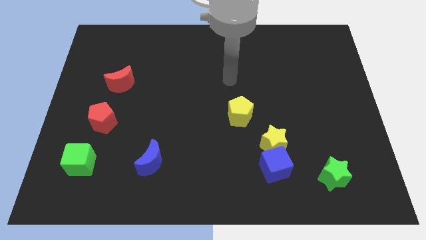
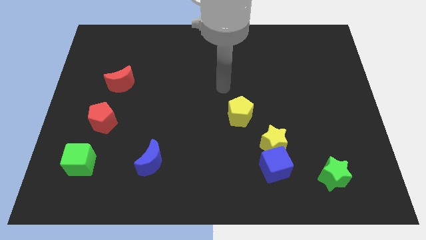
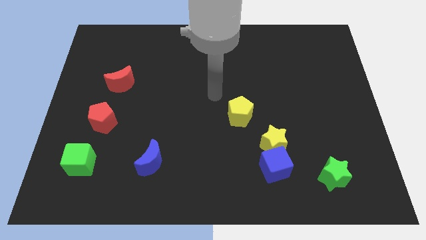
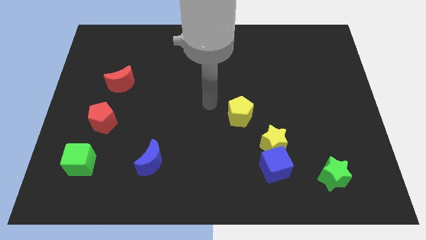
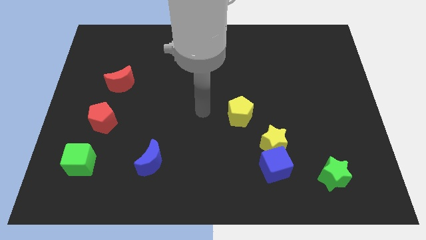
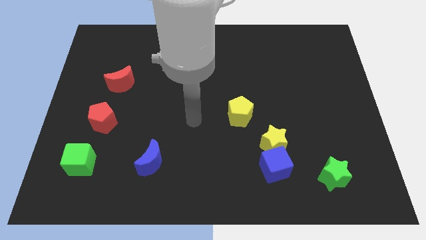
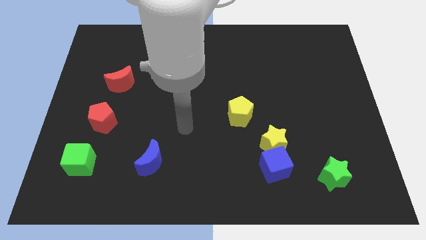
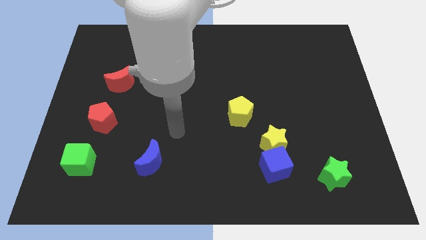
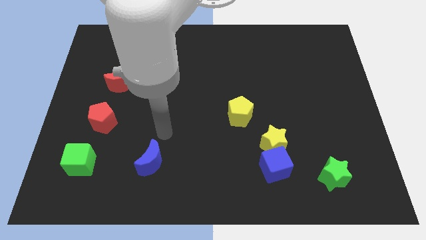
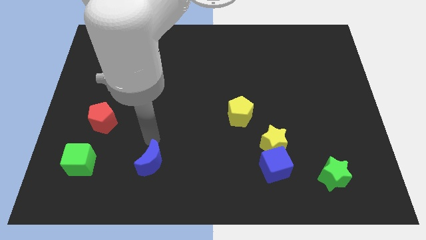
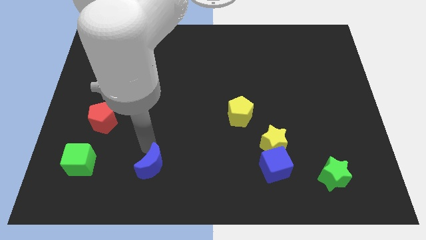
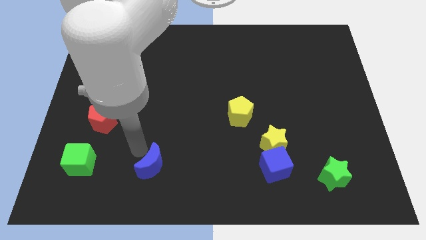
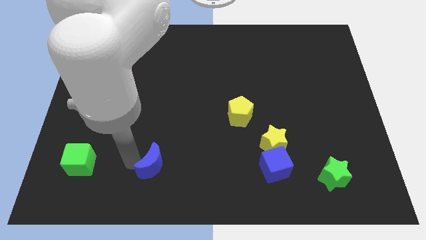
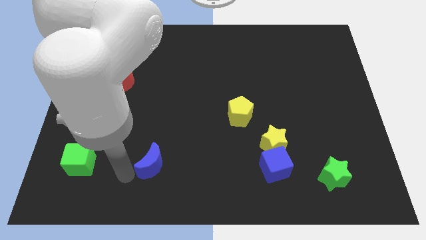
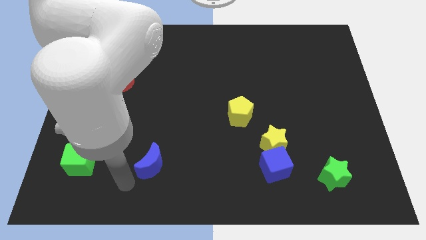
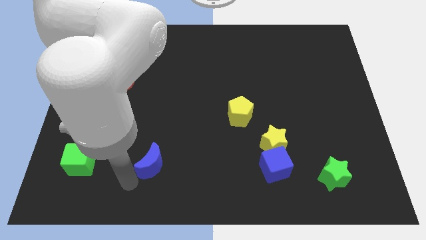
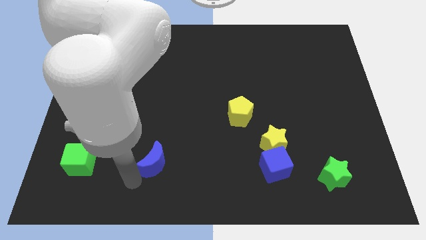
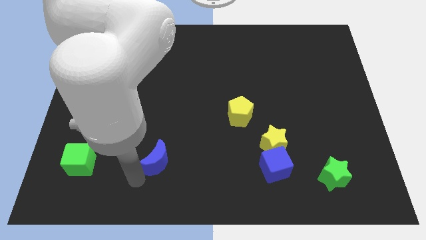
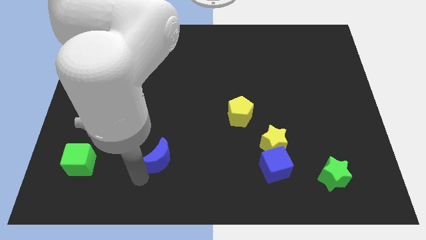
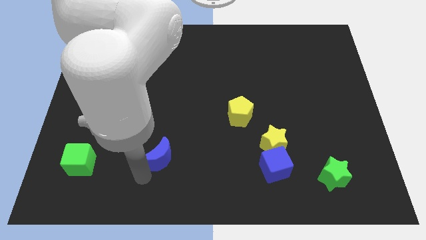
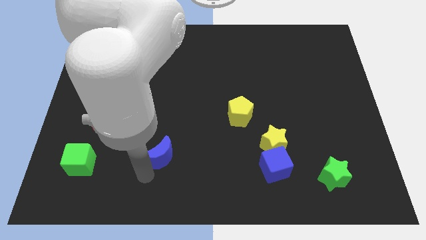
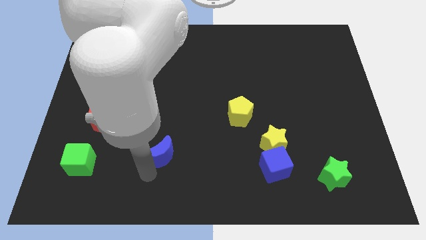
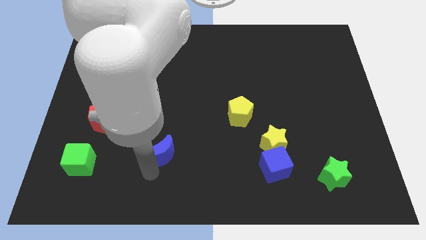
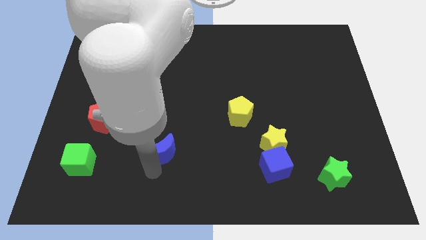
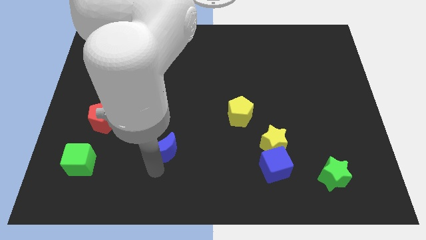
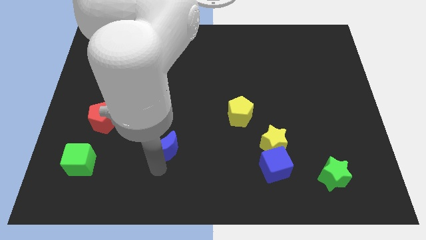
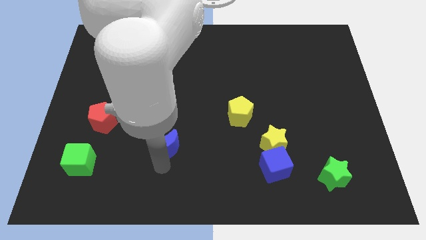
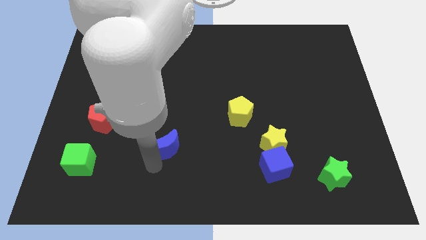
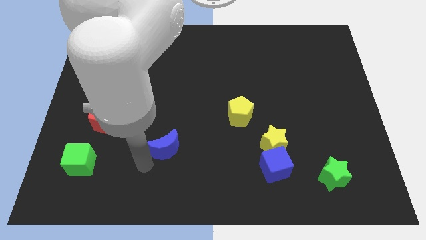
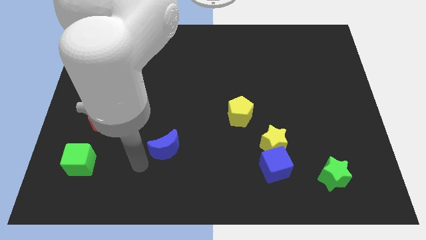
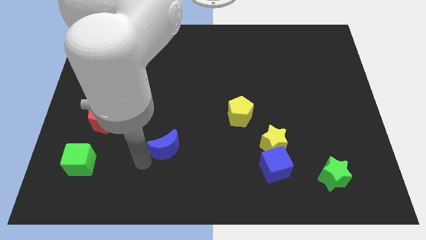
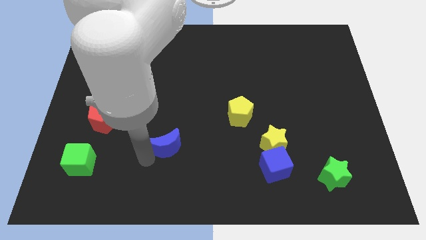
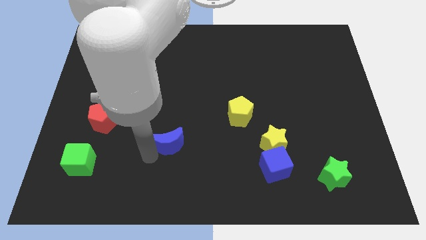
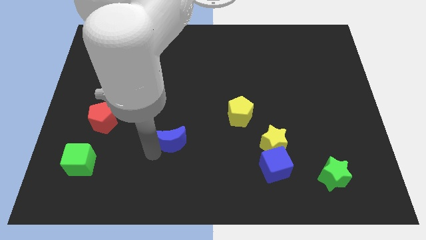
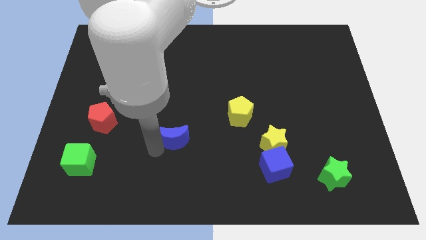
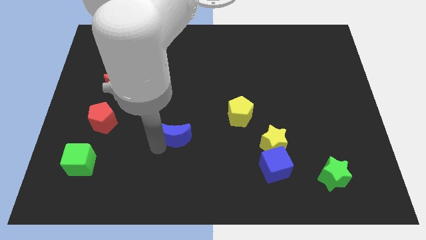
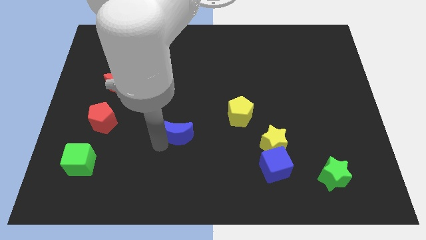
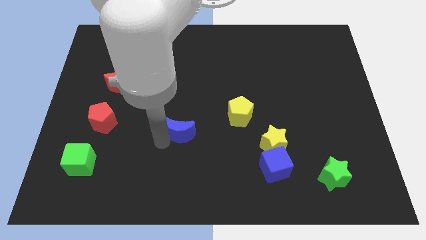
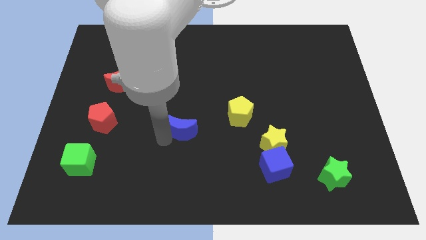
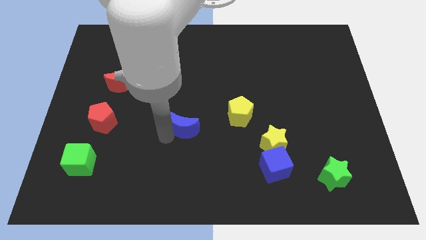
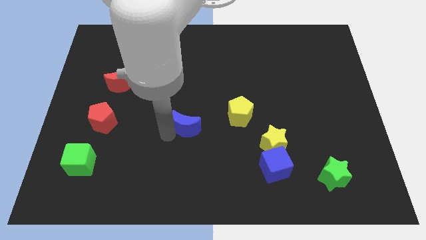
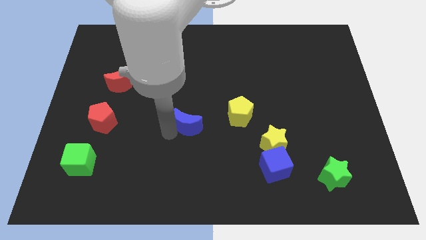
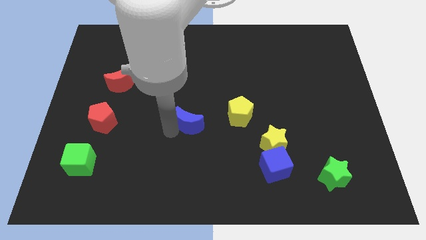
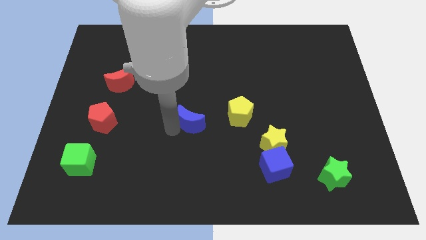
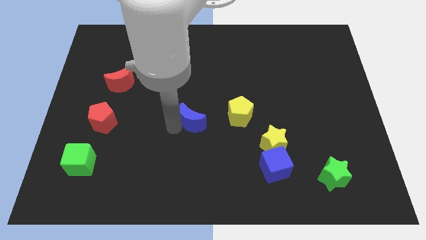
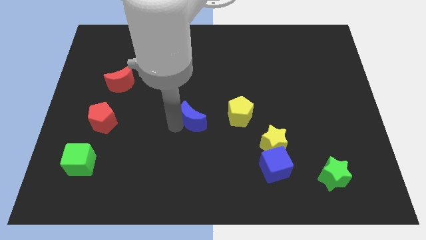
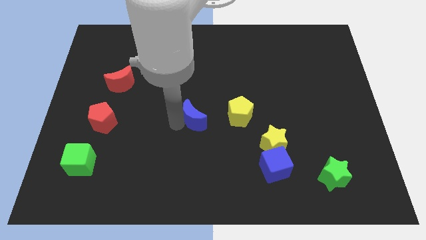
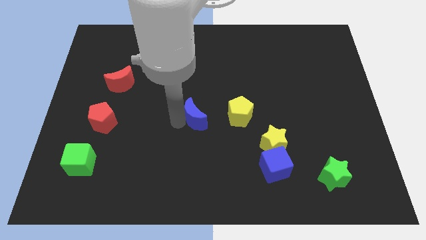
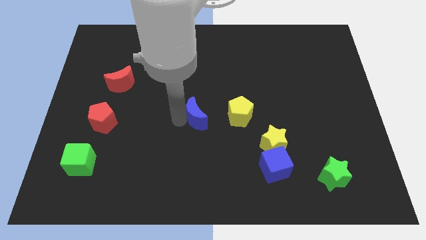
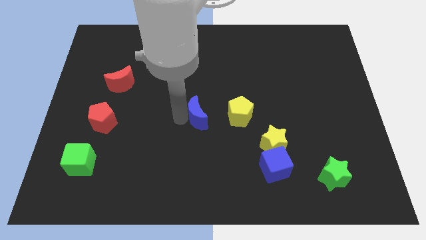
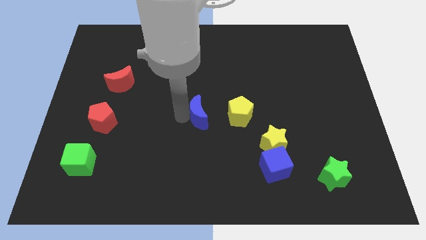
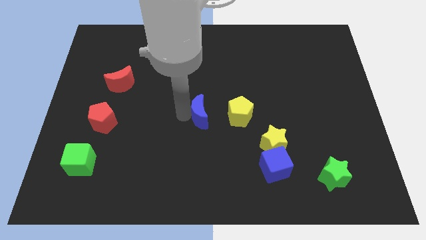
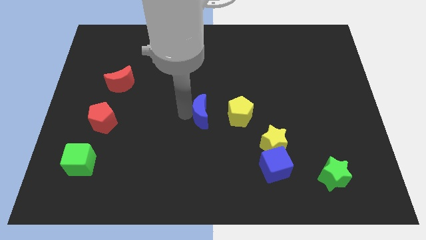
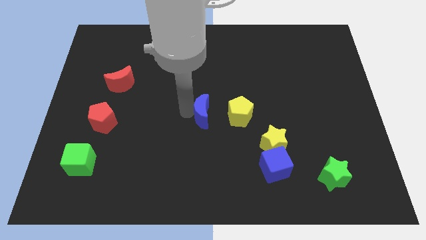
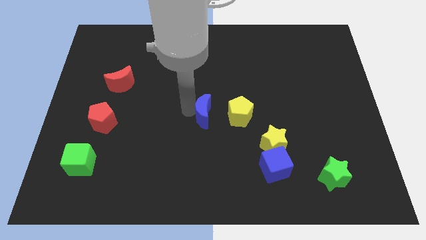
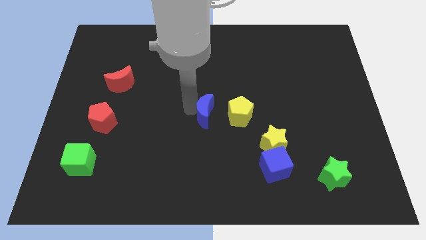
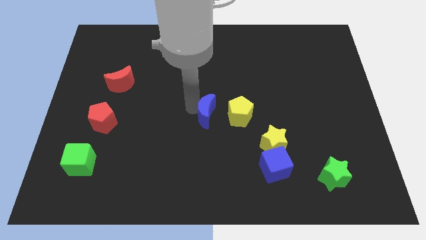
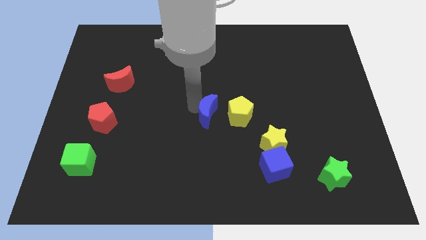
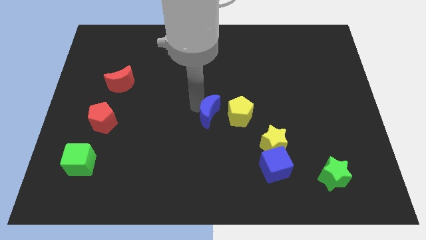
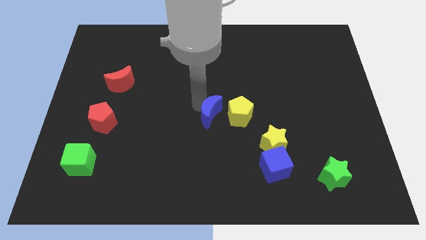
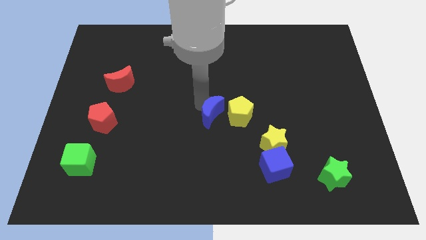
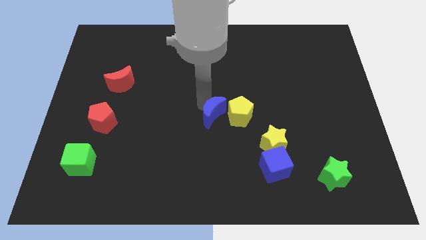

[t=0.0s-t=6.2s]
put the blue moon to the yellow pentagon

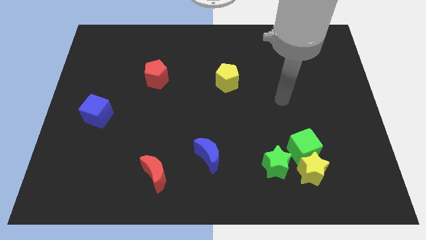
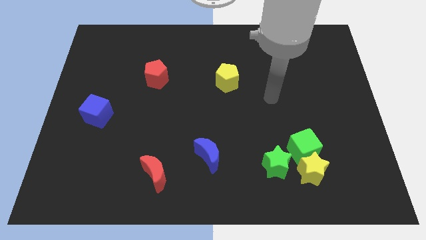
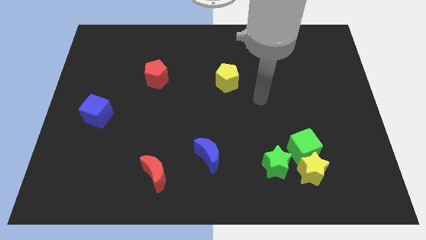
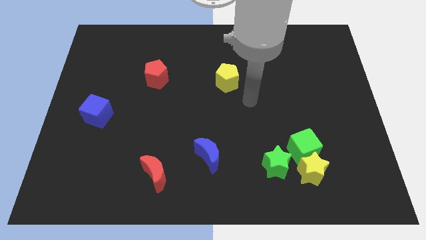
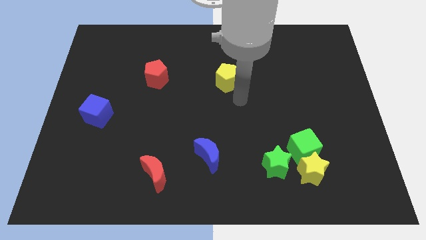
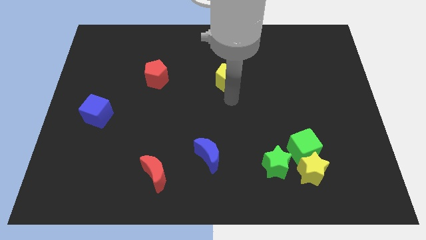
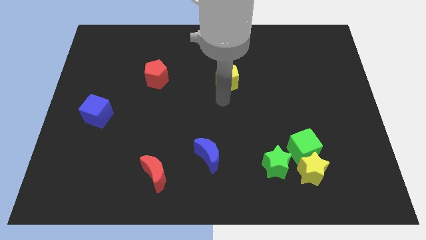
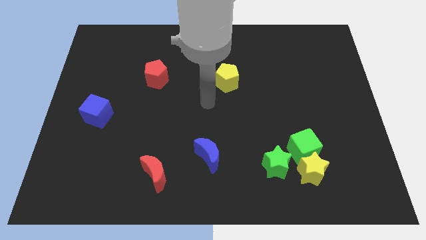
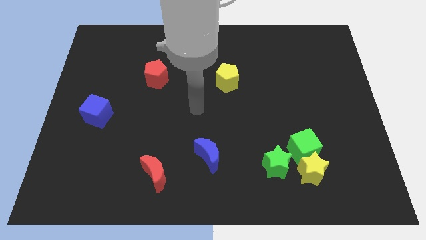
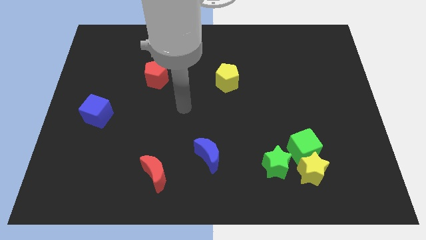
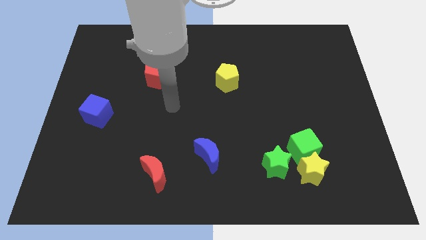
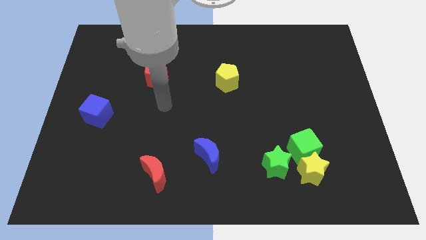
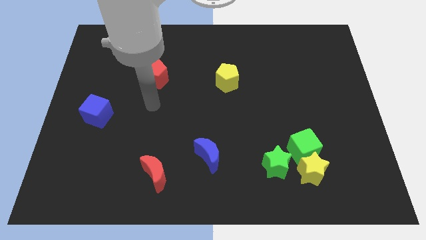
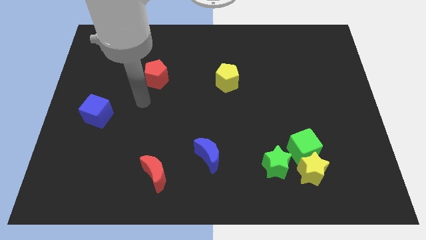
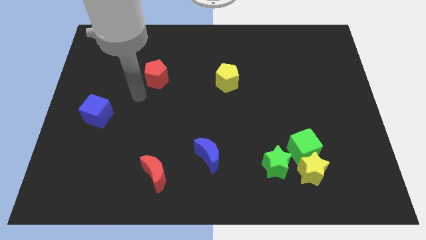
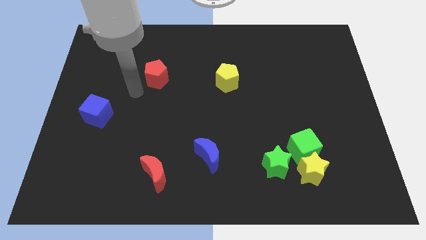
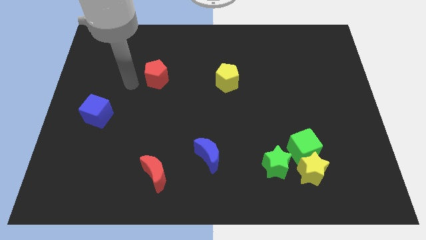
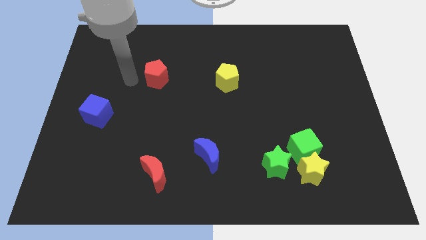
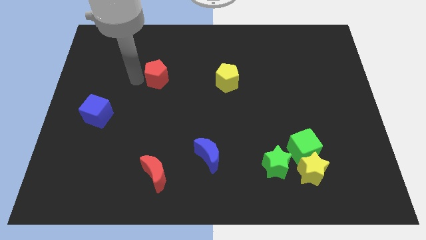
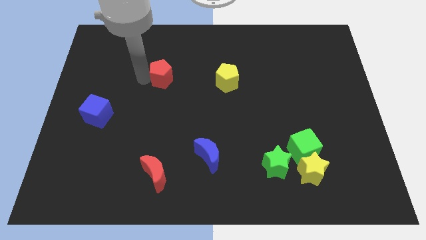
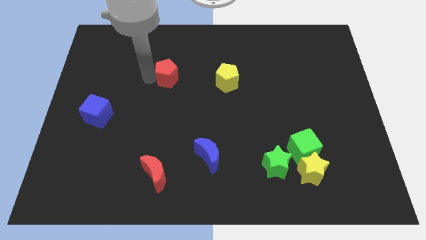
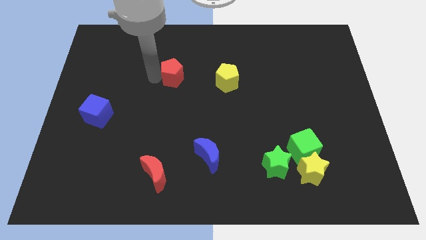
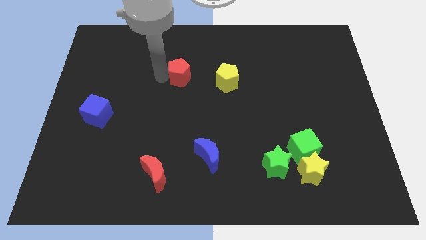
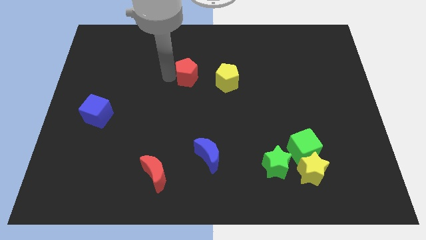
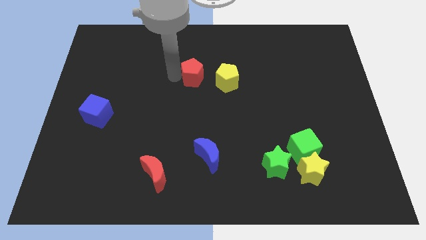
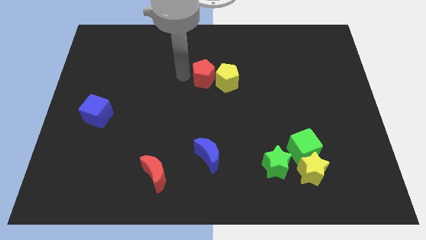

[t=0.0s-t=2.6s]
move the red pentagon to the yellow pentagon
